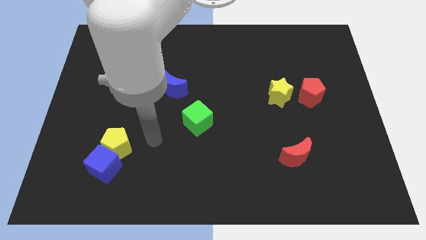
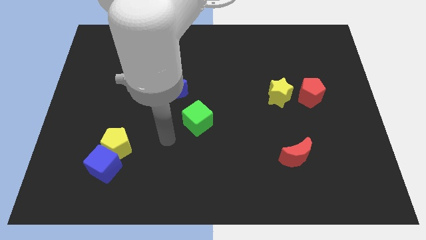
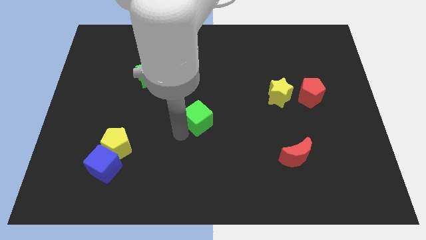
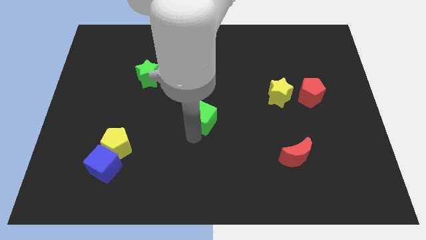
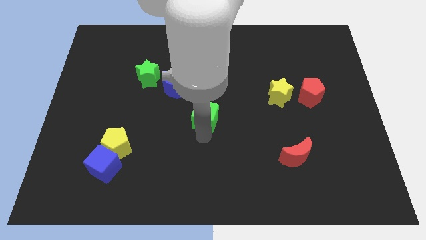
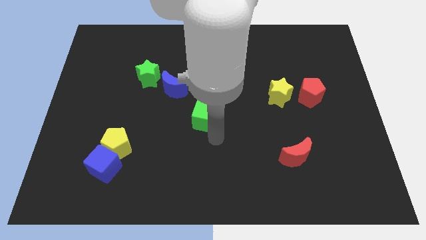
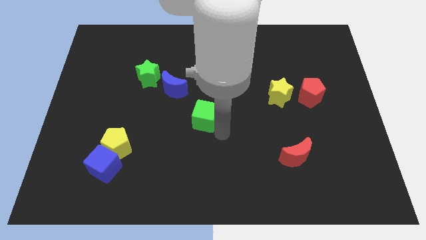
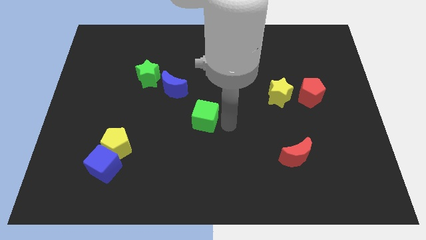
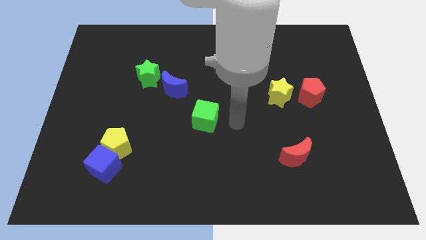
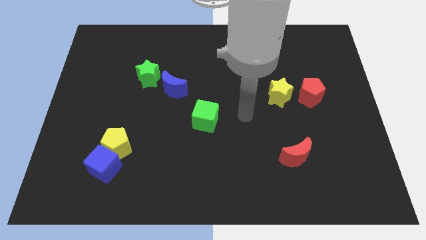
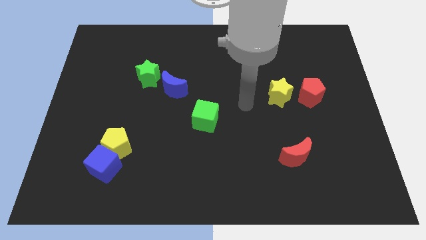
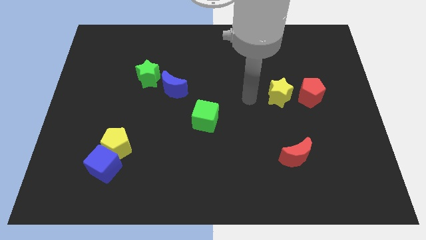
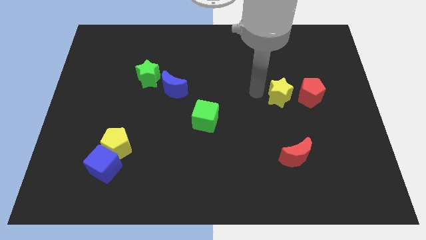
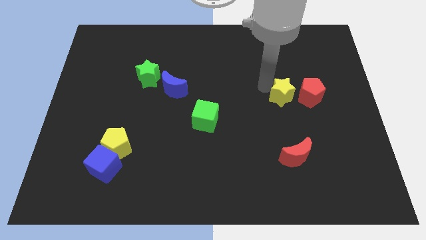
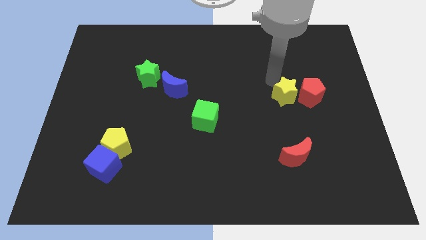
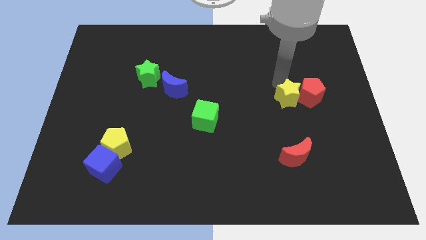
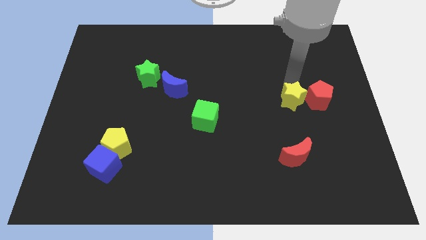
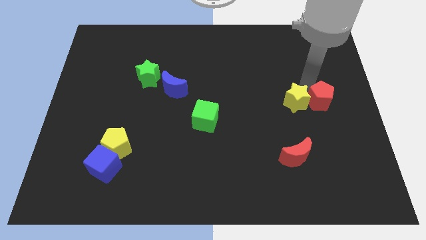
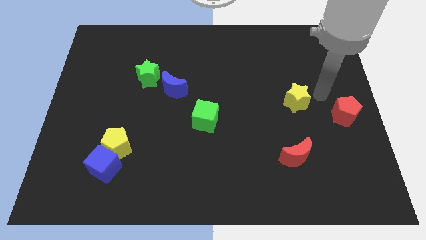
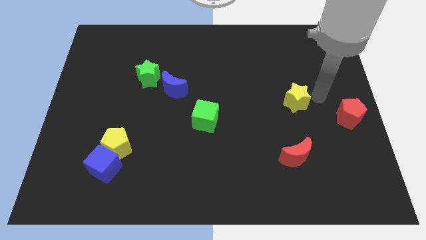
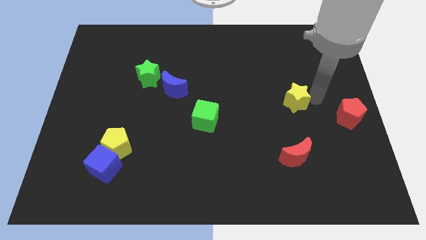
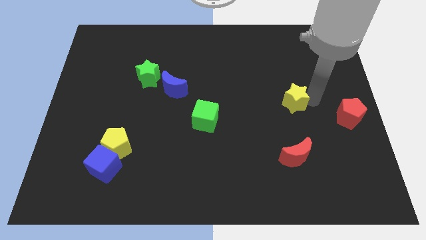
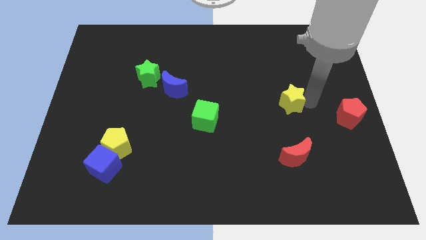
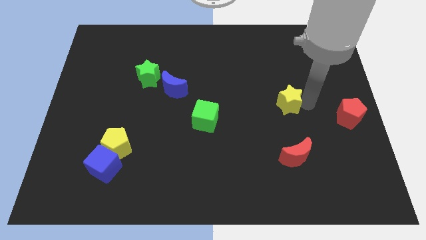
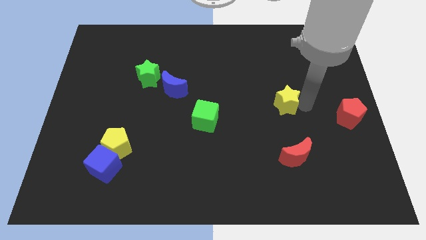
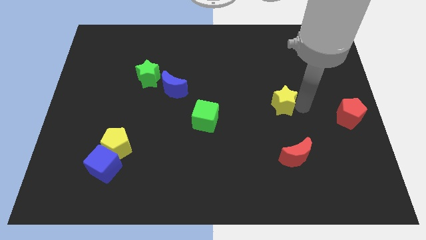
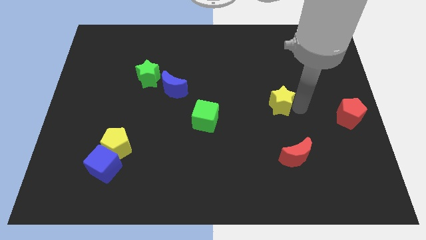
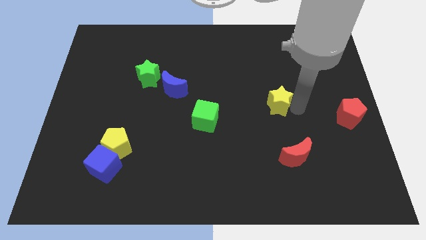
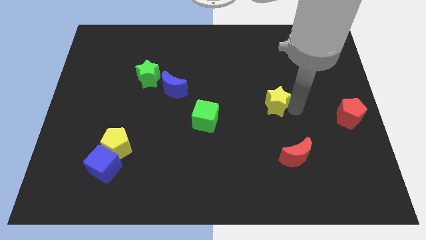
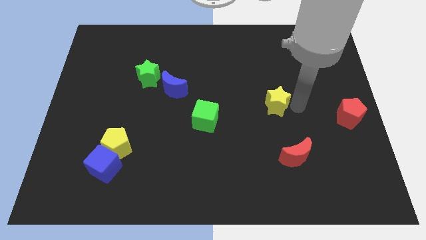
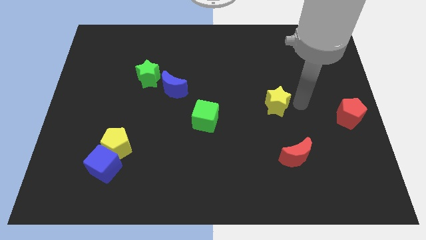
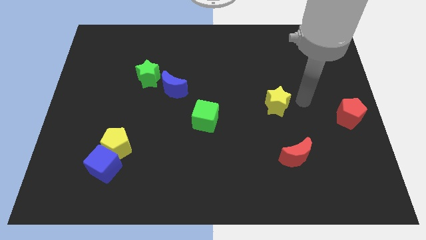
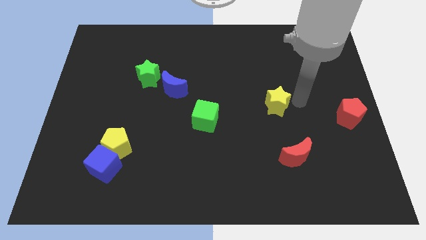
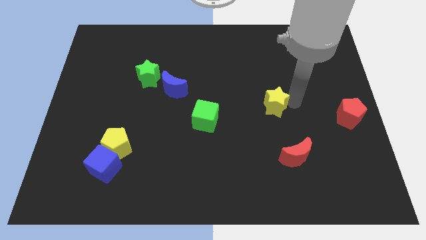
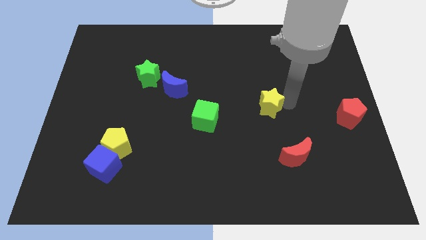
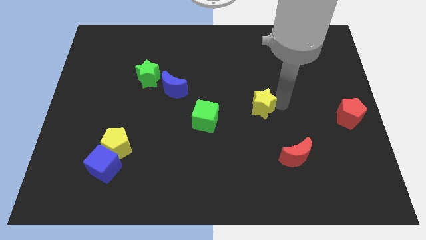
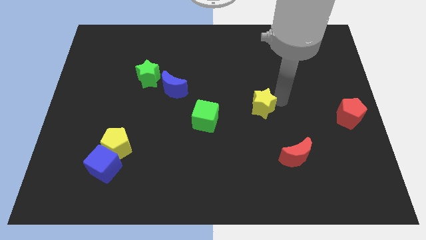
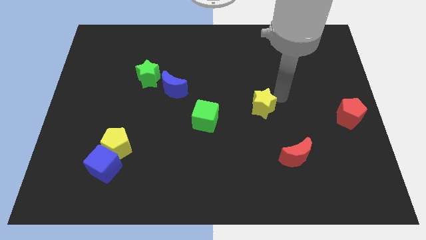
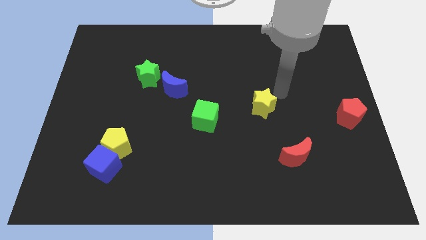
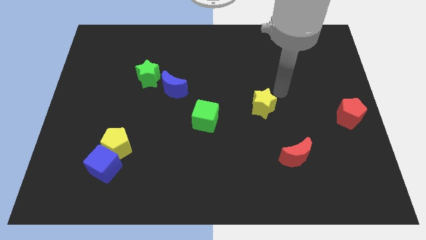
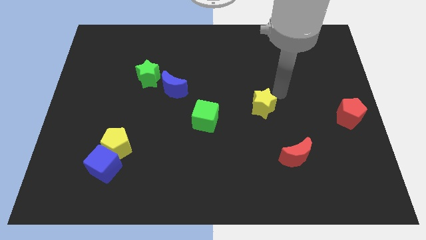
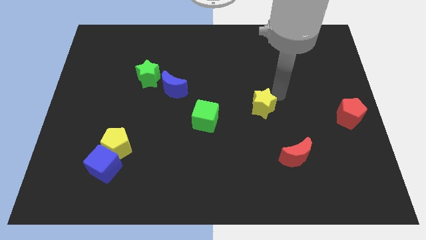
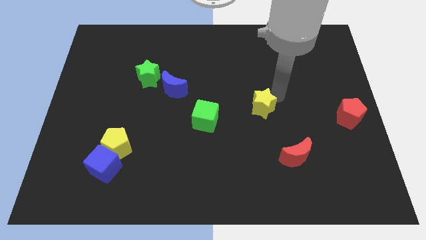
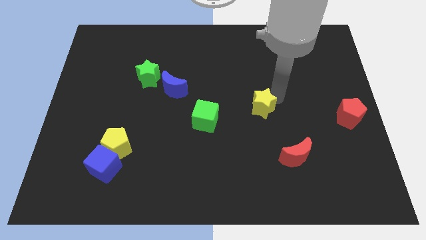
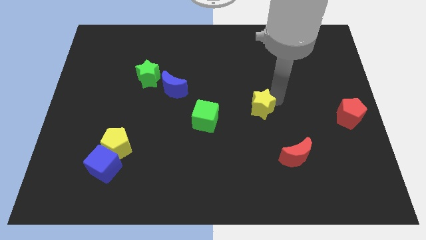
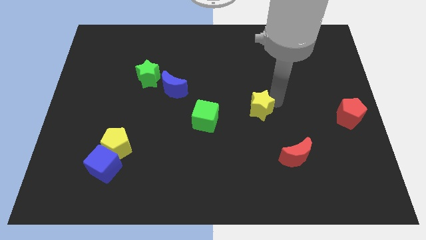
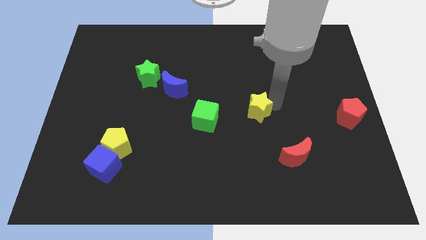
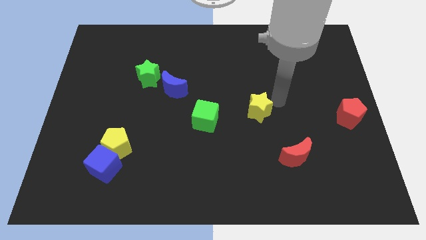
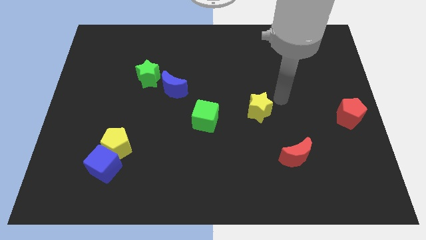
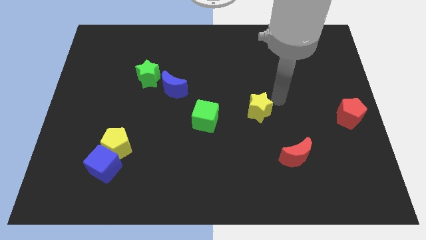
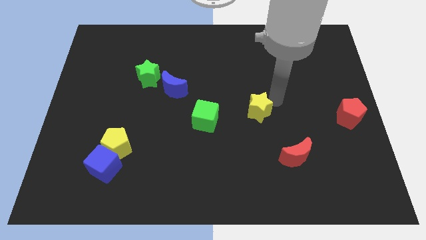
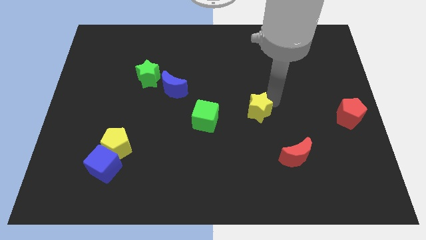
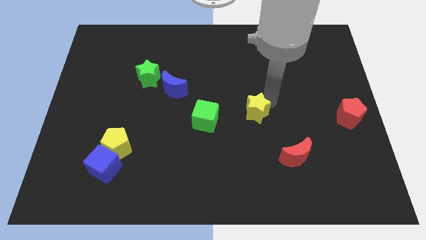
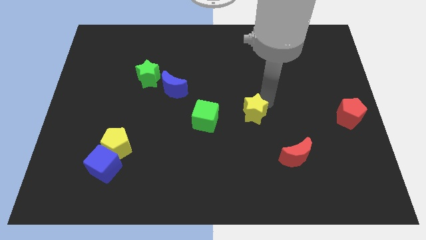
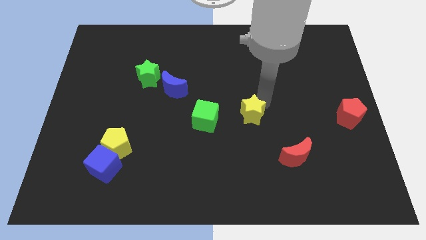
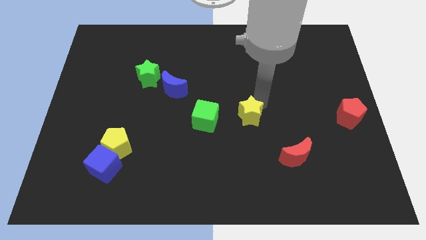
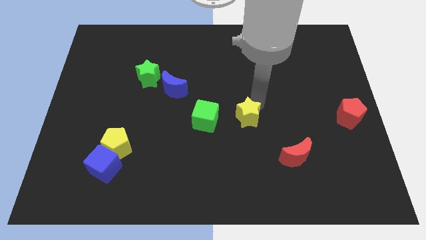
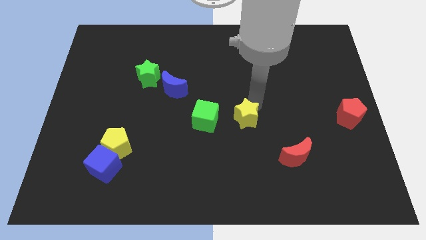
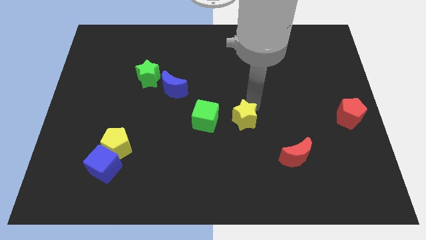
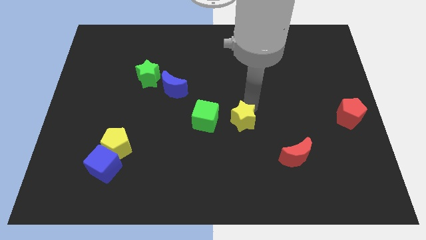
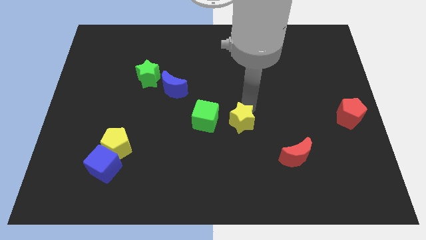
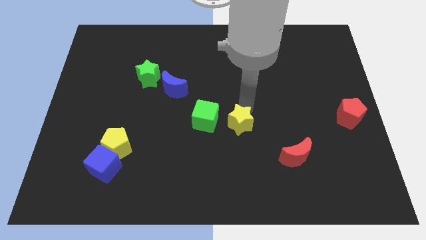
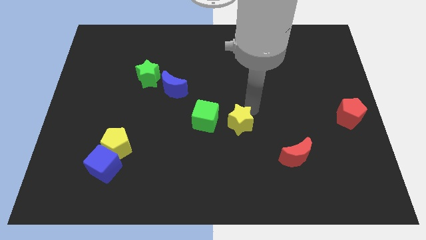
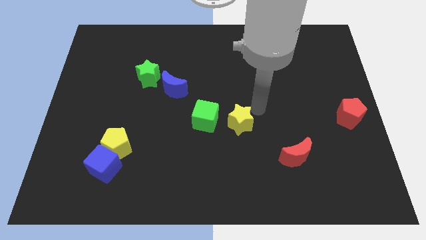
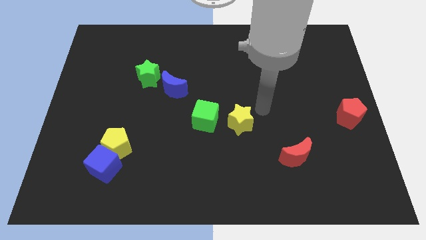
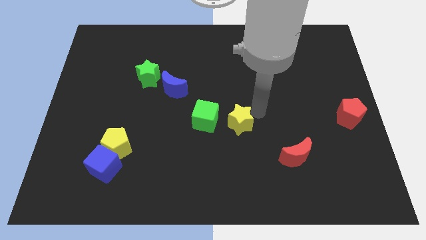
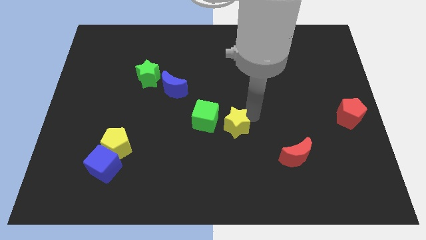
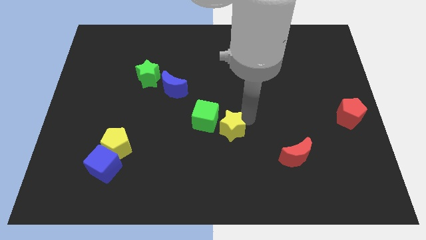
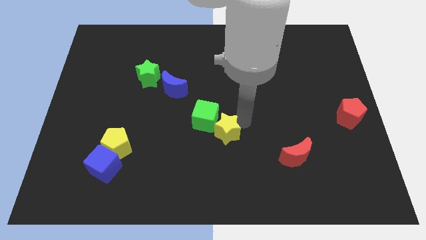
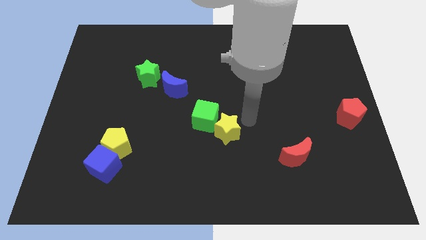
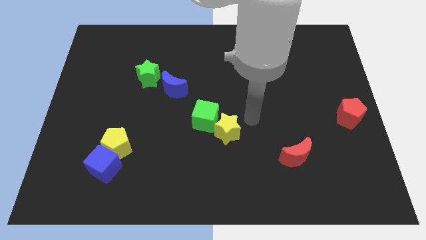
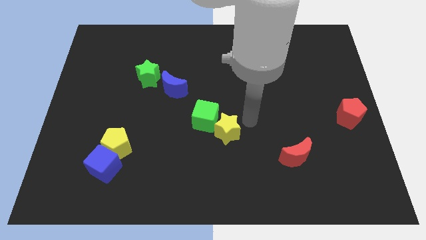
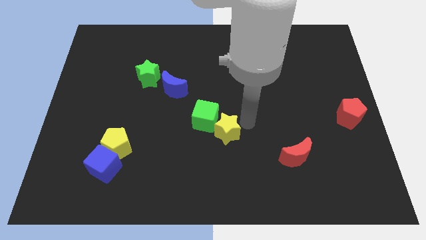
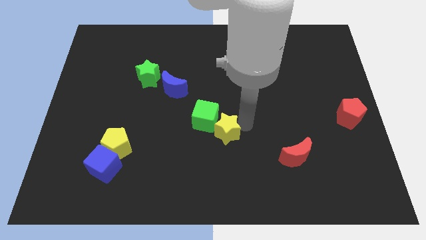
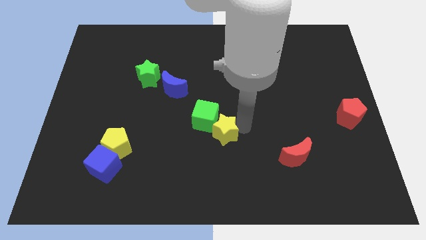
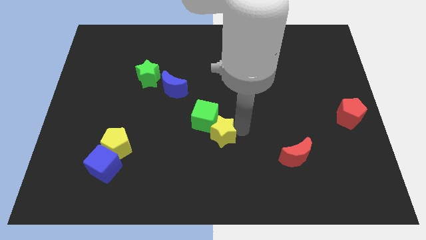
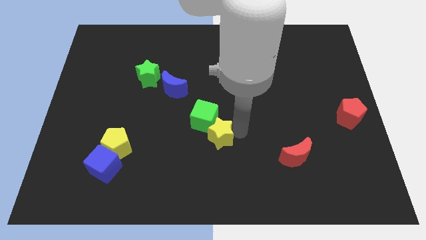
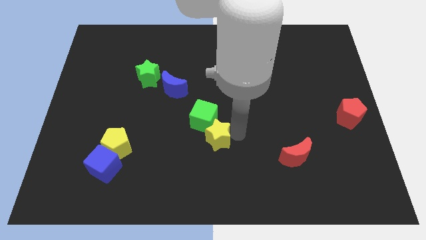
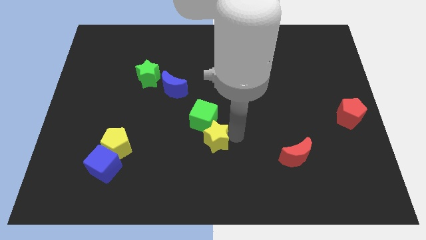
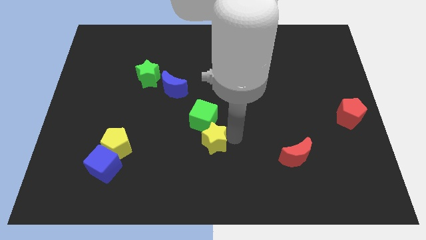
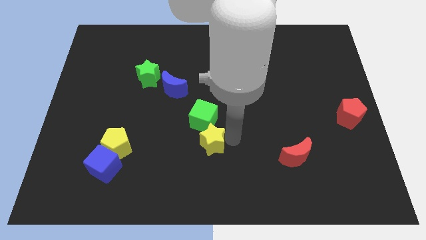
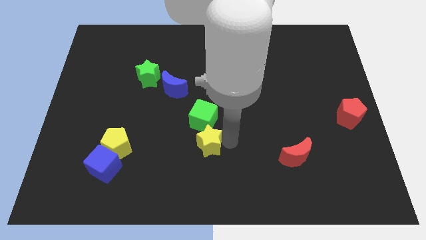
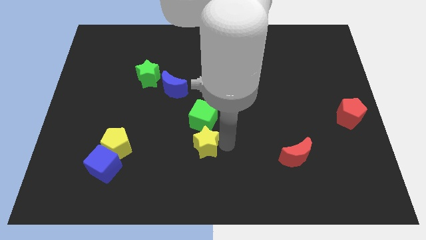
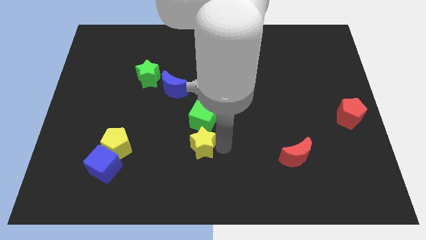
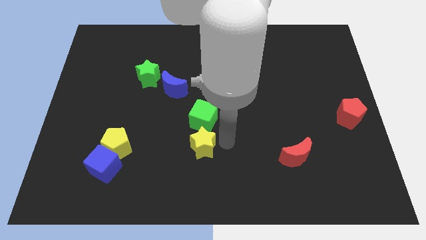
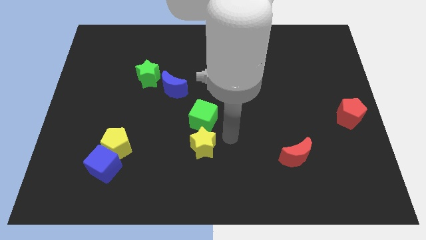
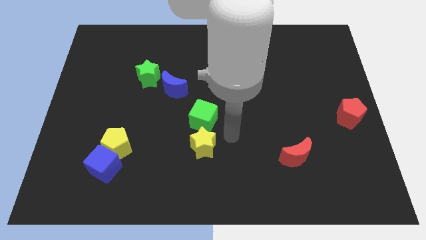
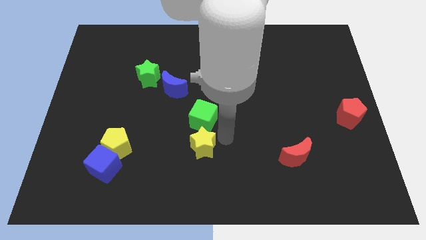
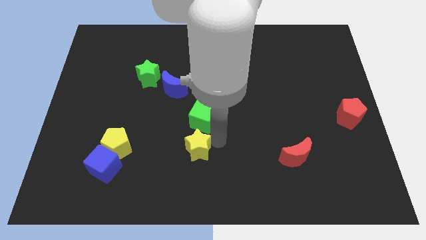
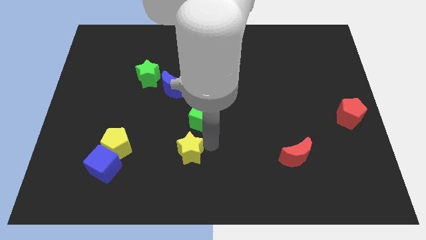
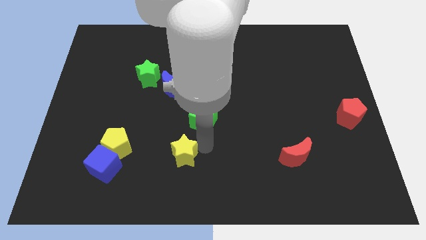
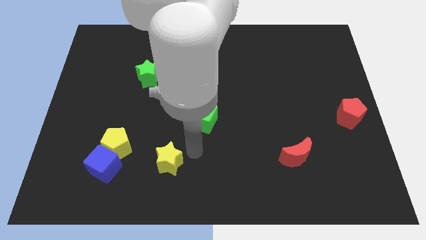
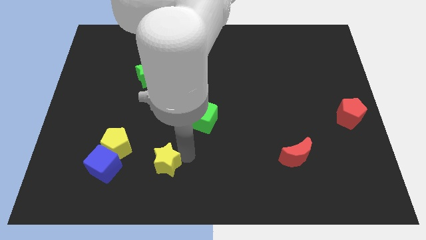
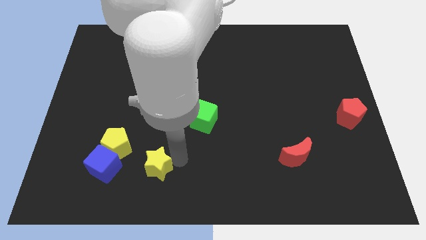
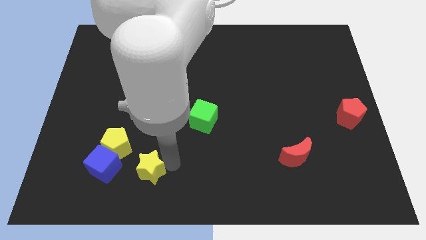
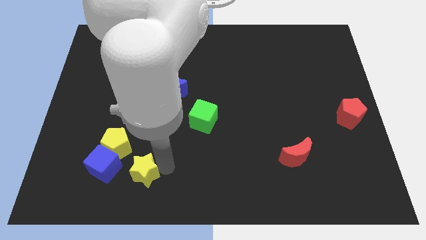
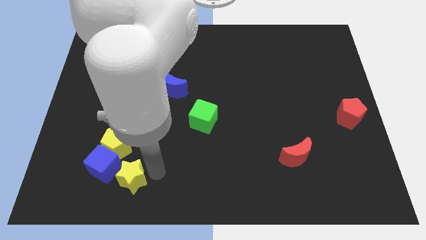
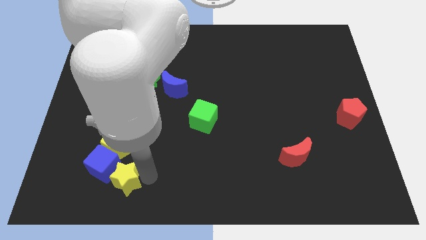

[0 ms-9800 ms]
put the yellow star to the blue cube
